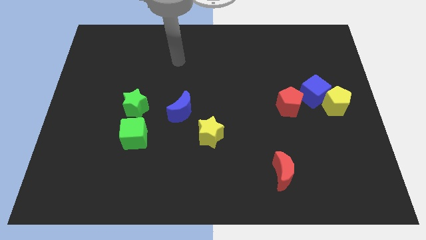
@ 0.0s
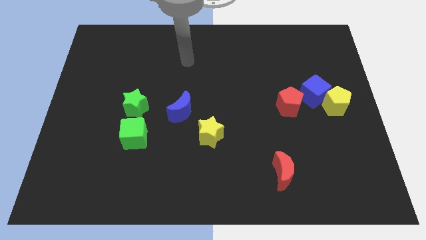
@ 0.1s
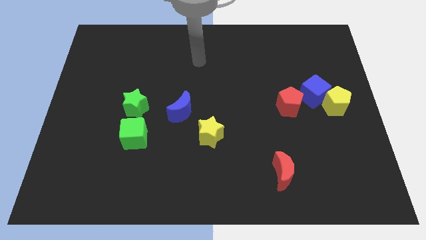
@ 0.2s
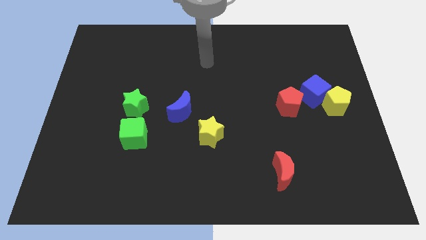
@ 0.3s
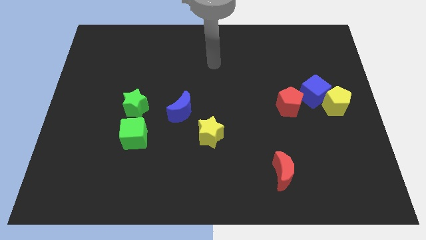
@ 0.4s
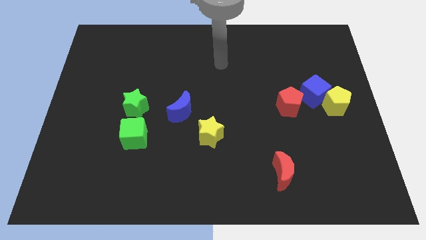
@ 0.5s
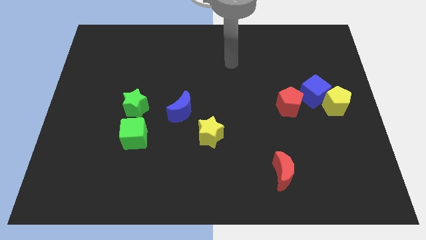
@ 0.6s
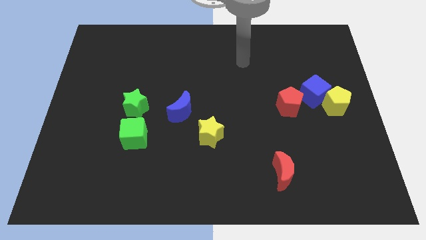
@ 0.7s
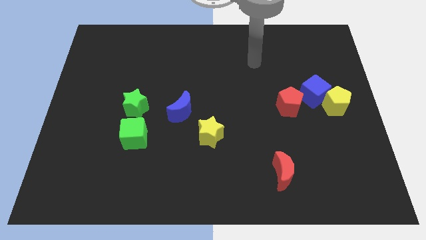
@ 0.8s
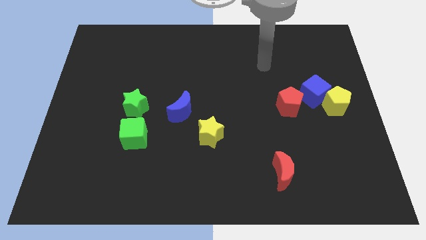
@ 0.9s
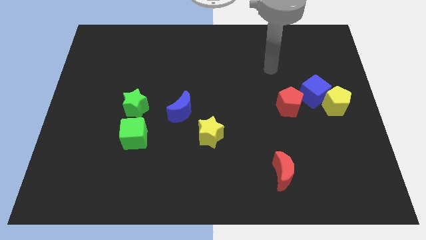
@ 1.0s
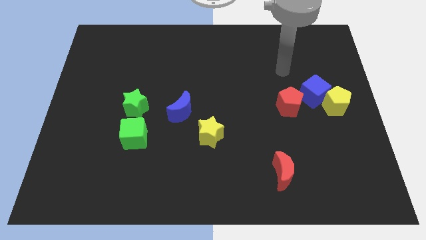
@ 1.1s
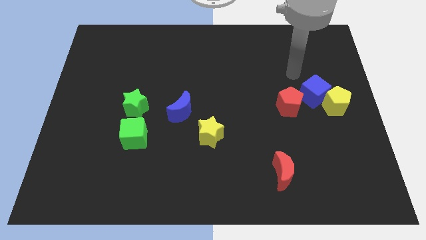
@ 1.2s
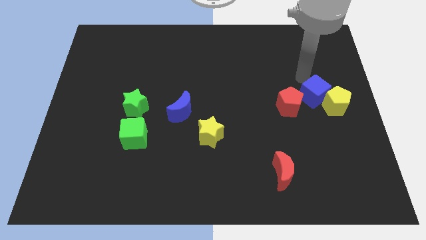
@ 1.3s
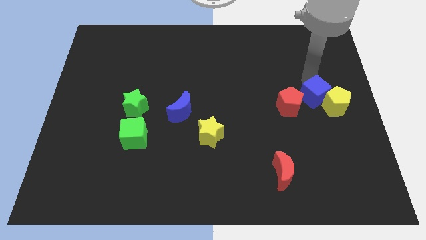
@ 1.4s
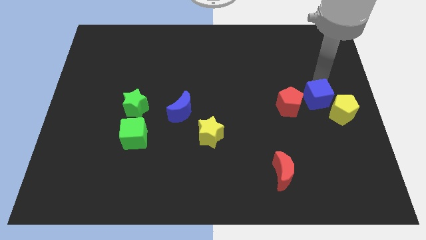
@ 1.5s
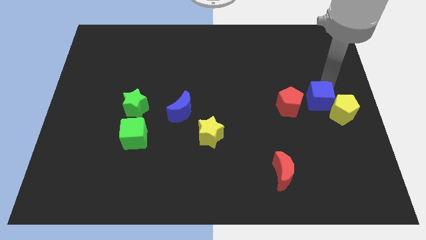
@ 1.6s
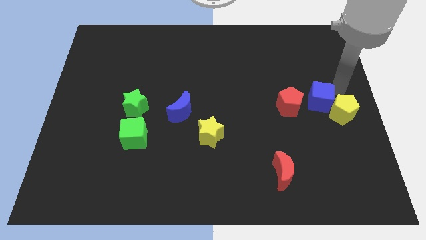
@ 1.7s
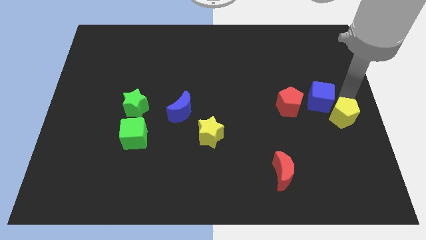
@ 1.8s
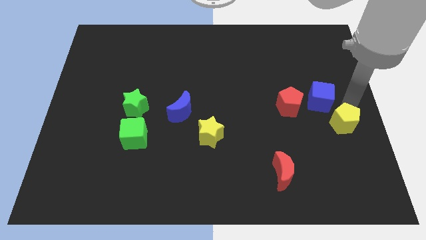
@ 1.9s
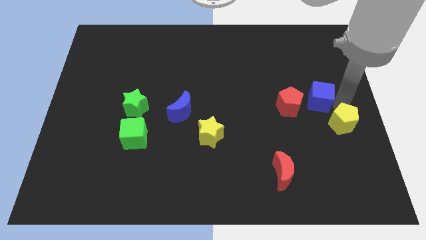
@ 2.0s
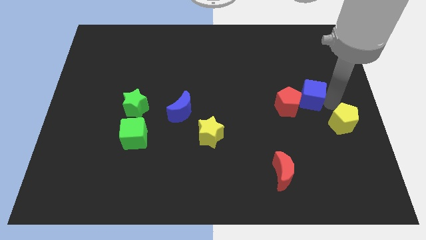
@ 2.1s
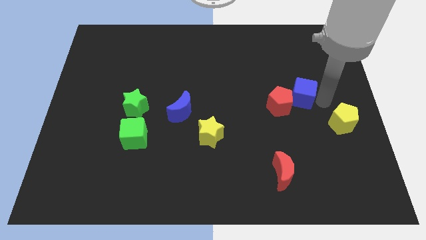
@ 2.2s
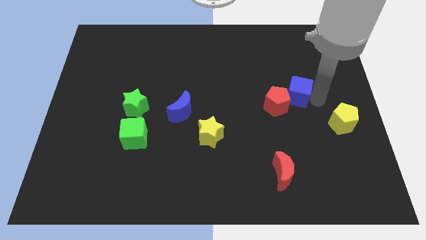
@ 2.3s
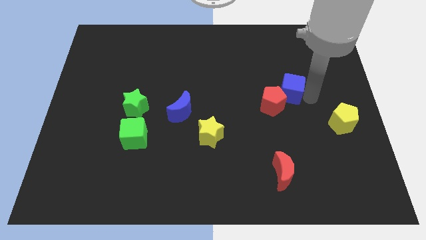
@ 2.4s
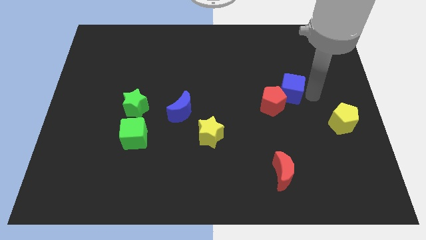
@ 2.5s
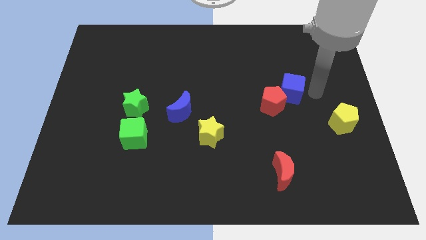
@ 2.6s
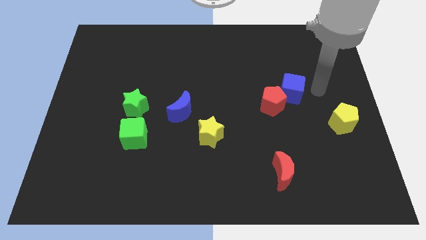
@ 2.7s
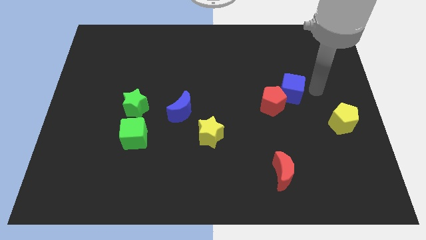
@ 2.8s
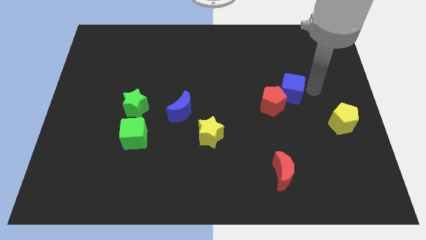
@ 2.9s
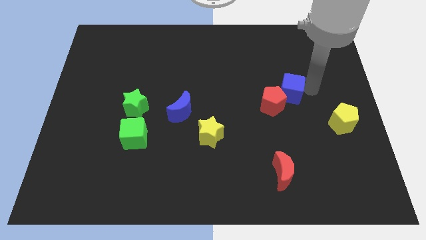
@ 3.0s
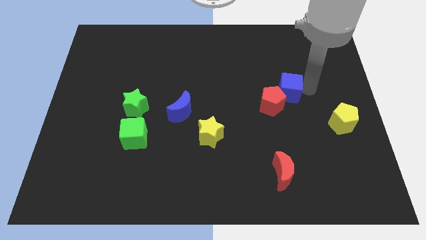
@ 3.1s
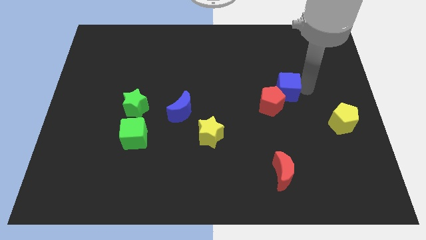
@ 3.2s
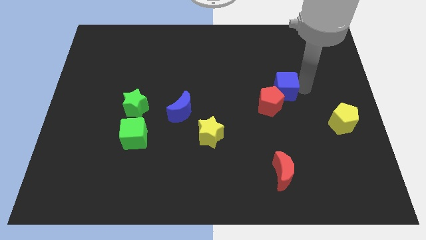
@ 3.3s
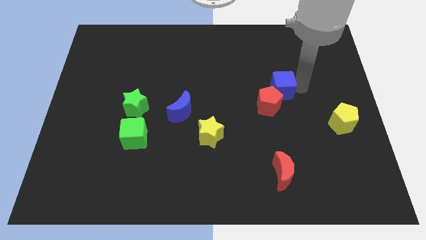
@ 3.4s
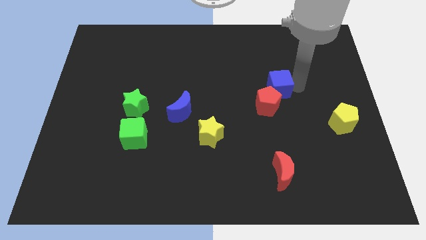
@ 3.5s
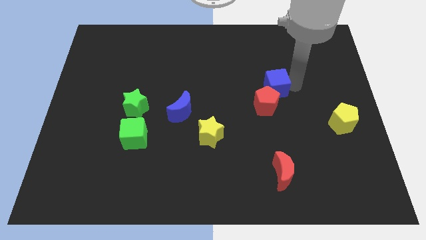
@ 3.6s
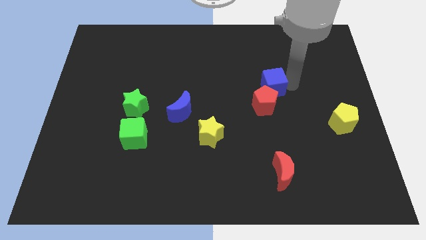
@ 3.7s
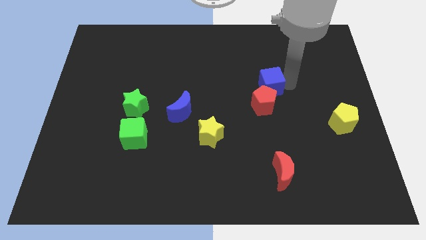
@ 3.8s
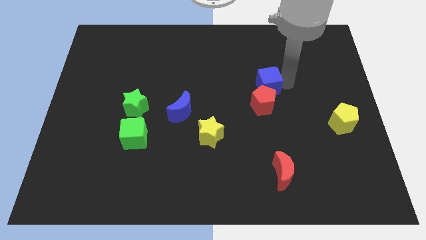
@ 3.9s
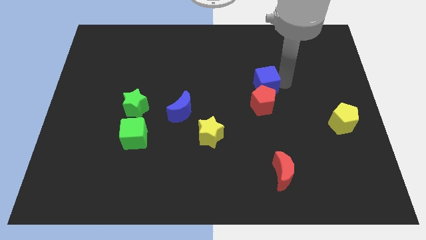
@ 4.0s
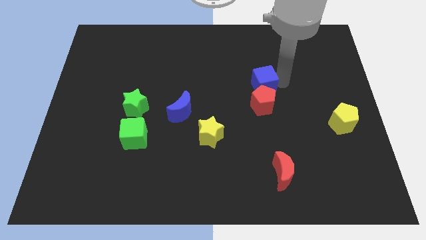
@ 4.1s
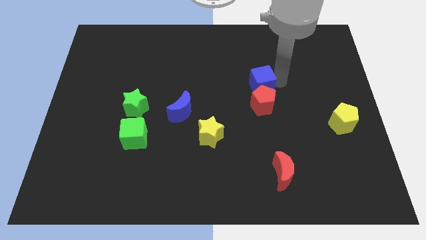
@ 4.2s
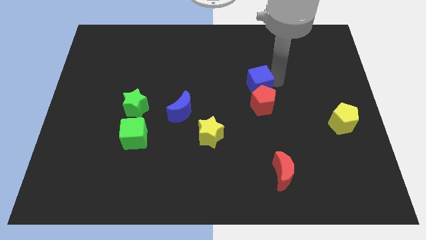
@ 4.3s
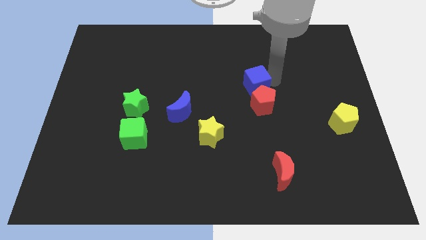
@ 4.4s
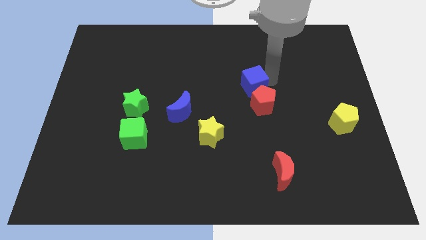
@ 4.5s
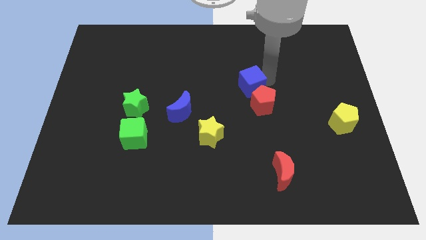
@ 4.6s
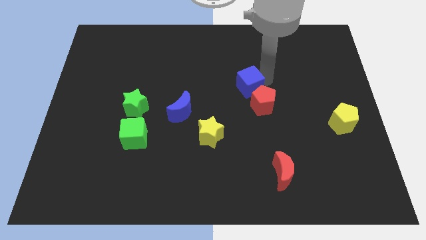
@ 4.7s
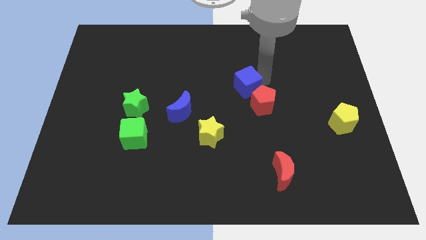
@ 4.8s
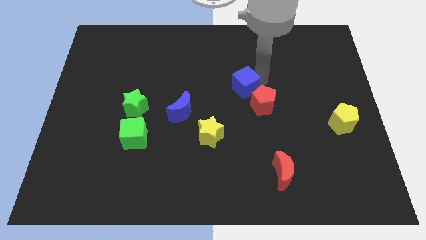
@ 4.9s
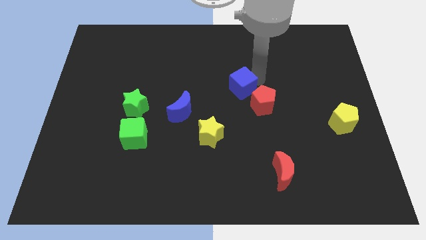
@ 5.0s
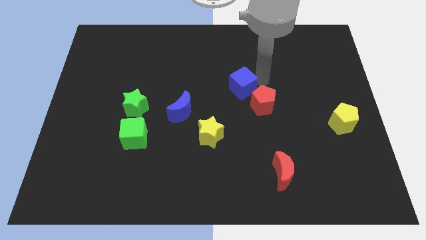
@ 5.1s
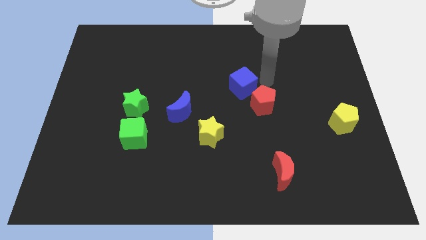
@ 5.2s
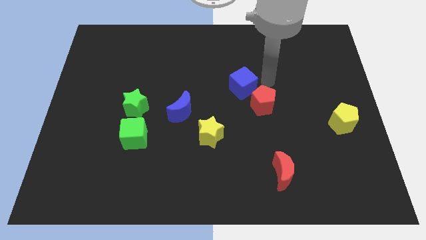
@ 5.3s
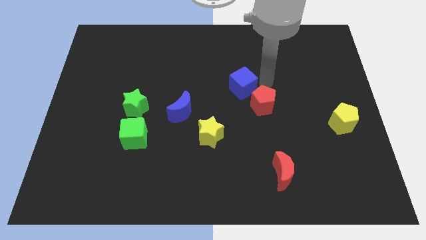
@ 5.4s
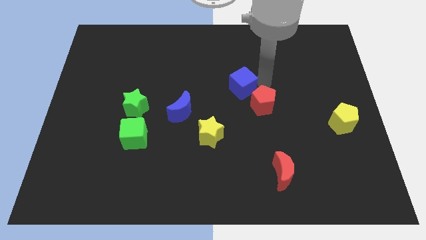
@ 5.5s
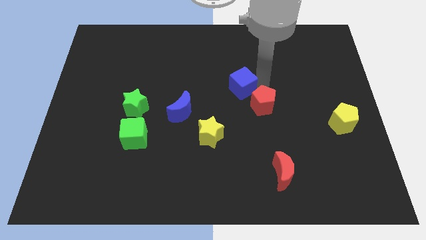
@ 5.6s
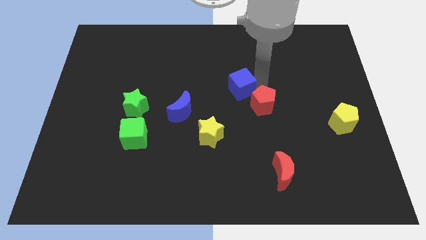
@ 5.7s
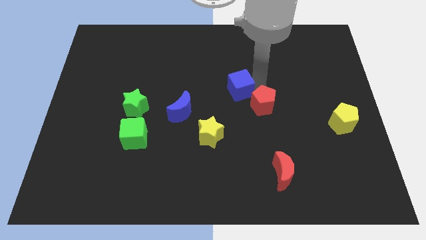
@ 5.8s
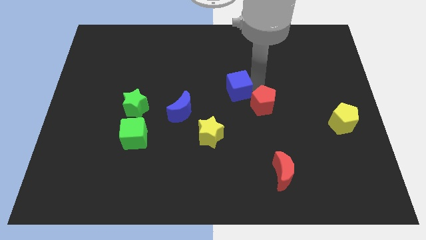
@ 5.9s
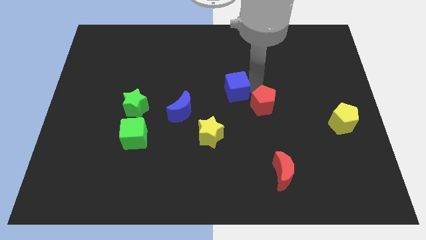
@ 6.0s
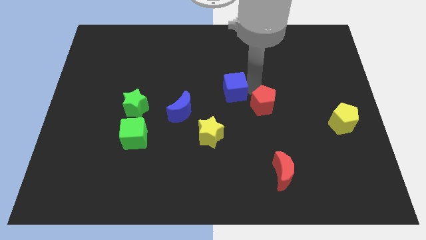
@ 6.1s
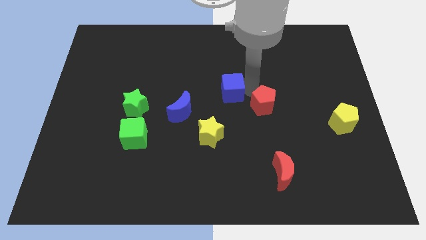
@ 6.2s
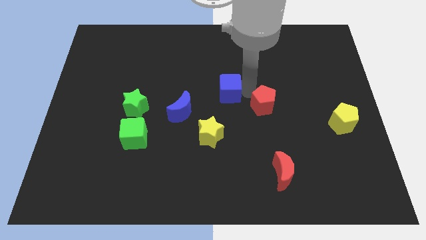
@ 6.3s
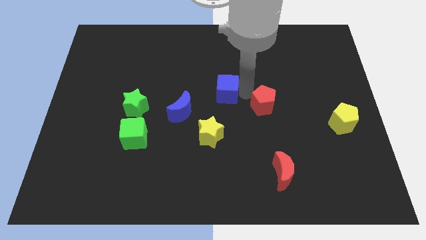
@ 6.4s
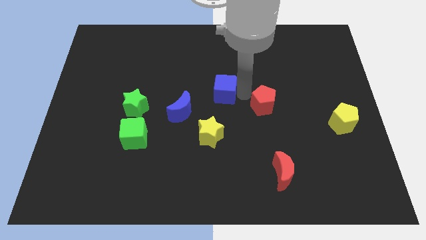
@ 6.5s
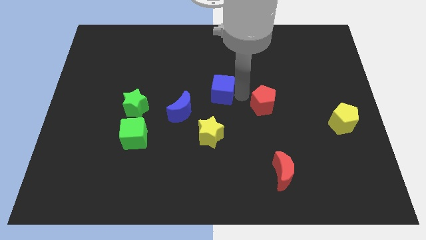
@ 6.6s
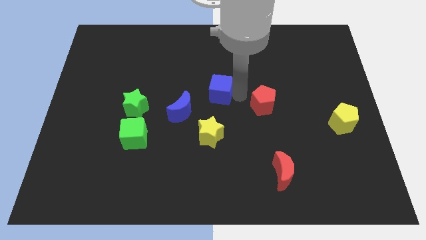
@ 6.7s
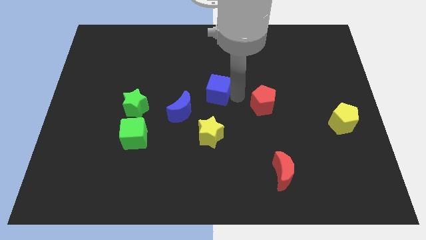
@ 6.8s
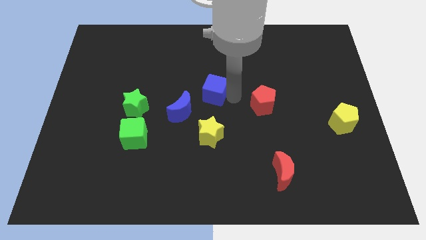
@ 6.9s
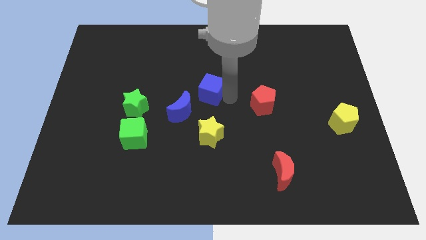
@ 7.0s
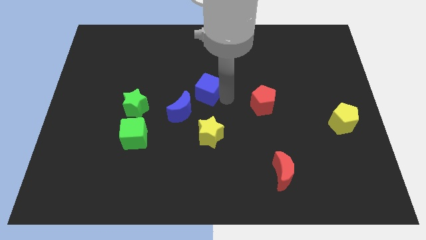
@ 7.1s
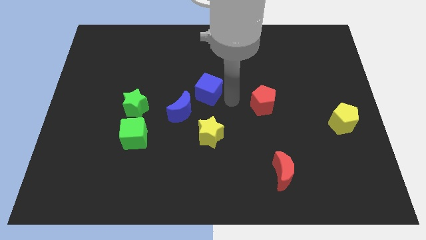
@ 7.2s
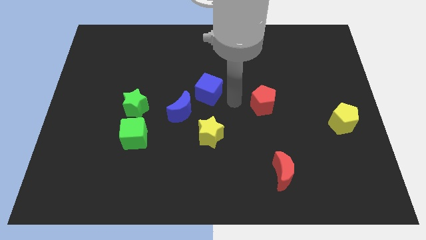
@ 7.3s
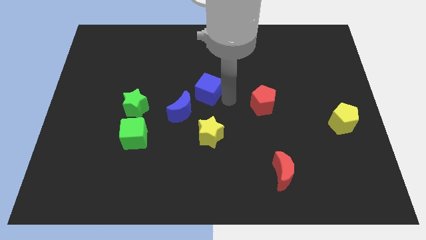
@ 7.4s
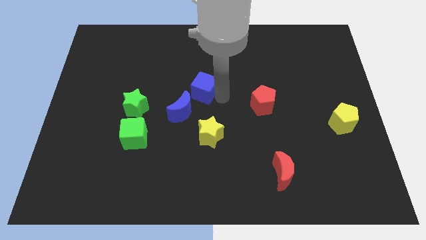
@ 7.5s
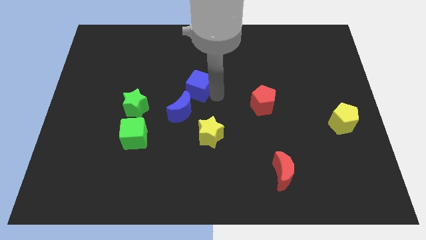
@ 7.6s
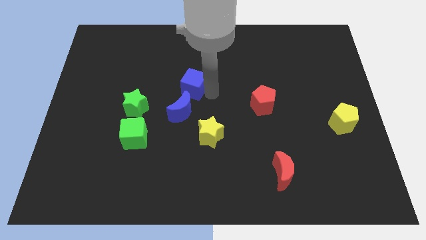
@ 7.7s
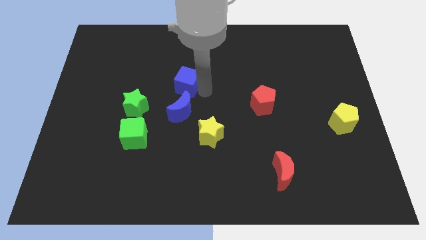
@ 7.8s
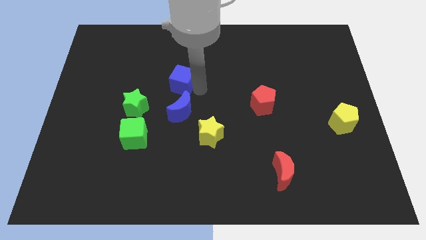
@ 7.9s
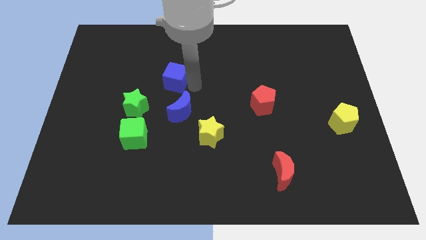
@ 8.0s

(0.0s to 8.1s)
slide the blue cube to the top right of the green star
